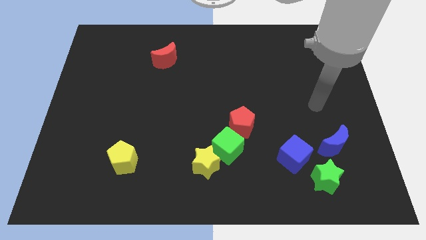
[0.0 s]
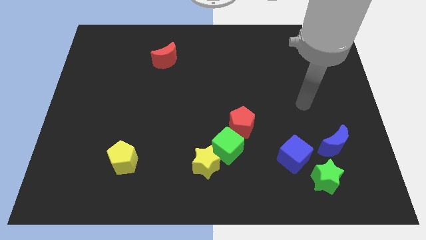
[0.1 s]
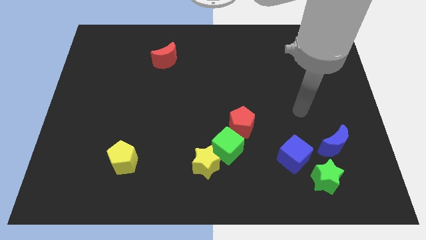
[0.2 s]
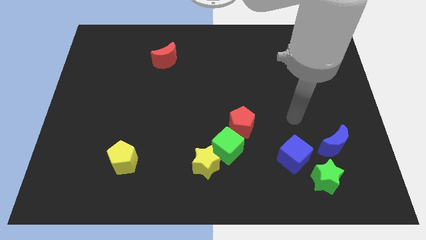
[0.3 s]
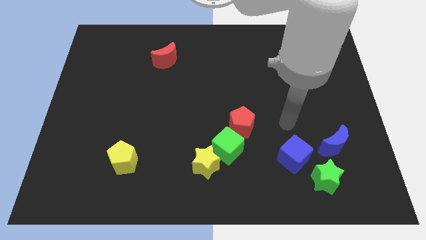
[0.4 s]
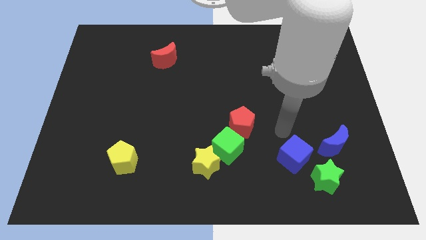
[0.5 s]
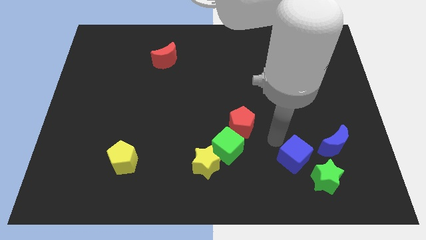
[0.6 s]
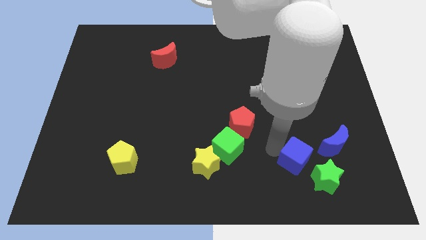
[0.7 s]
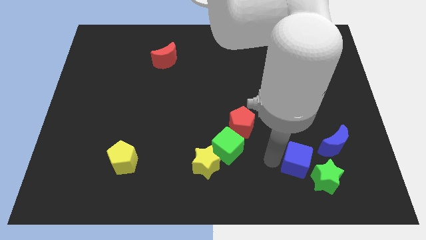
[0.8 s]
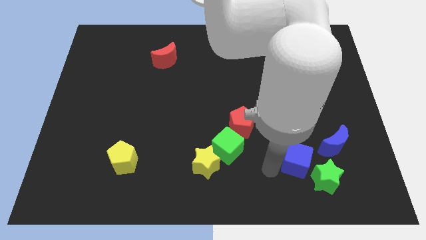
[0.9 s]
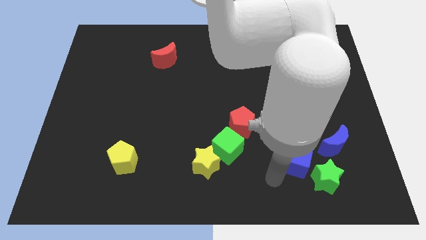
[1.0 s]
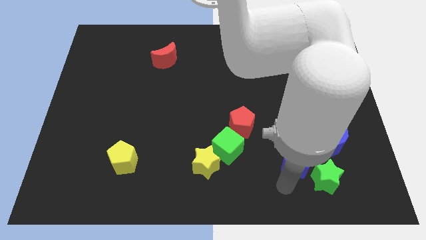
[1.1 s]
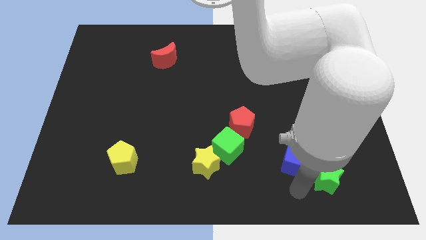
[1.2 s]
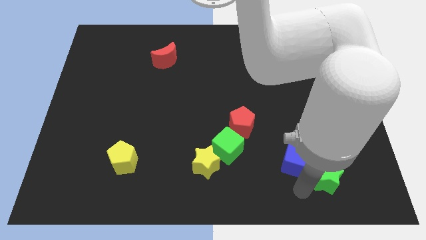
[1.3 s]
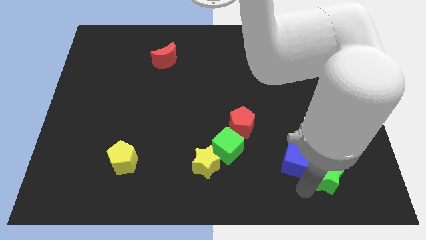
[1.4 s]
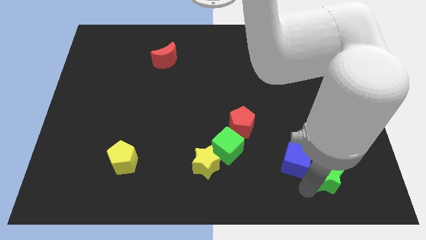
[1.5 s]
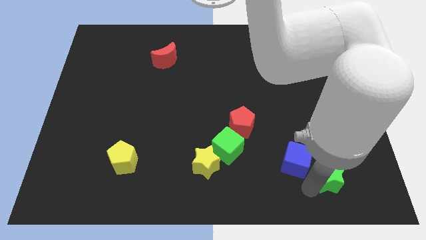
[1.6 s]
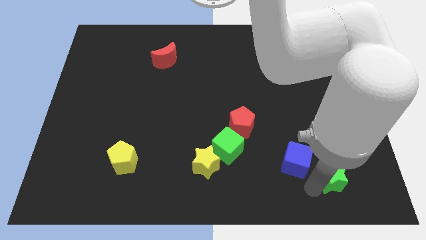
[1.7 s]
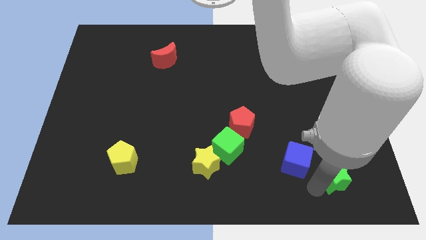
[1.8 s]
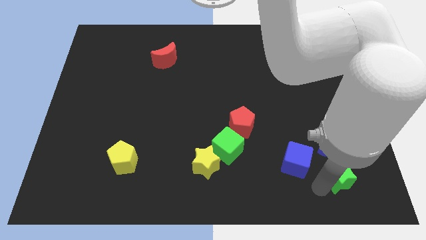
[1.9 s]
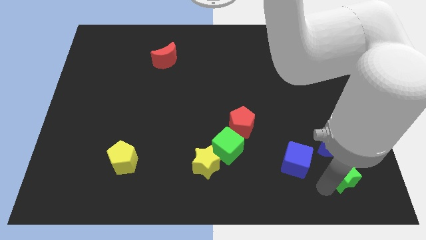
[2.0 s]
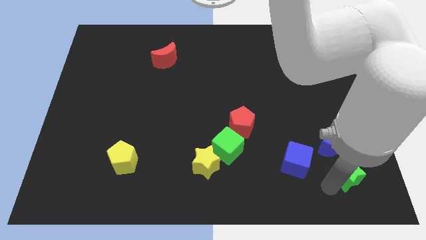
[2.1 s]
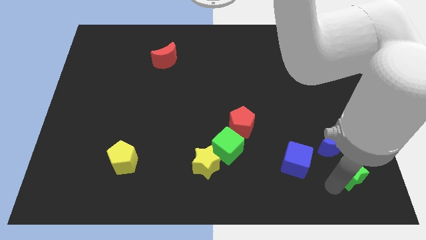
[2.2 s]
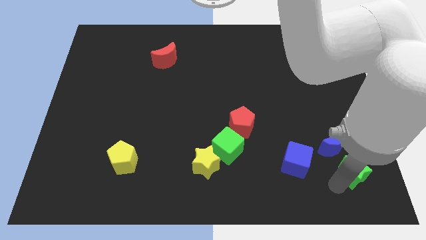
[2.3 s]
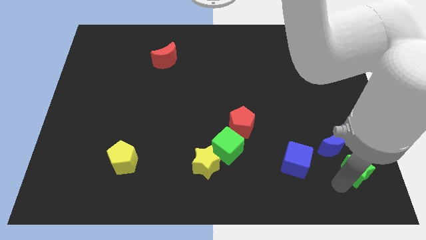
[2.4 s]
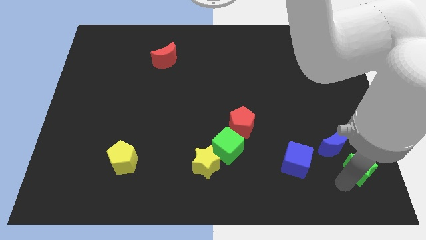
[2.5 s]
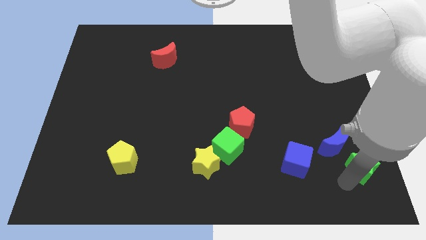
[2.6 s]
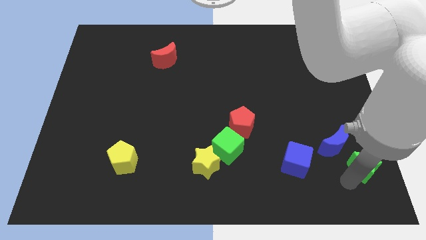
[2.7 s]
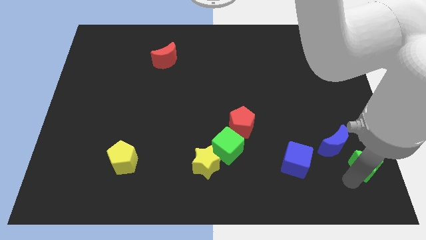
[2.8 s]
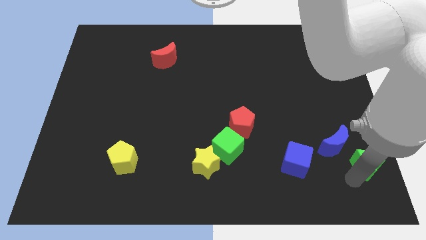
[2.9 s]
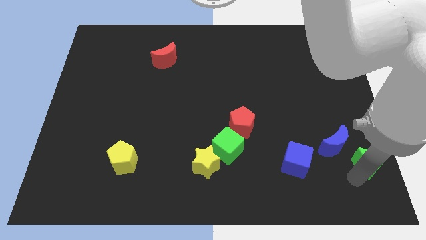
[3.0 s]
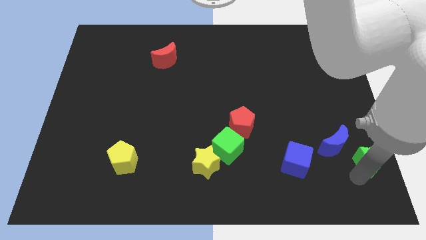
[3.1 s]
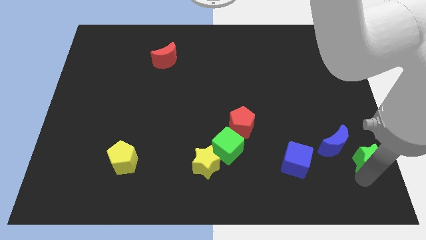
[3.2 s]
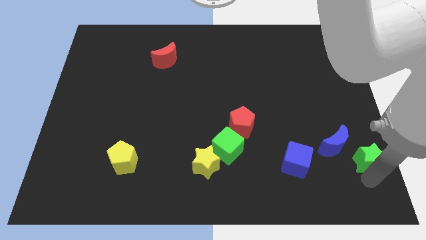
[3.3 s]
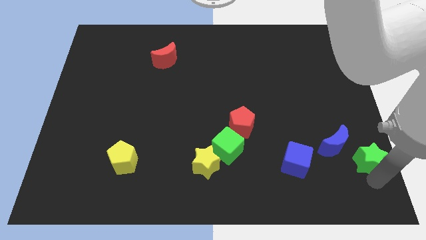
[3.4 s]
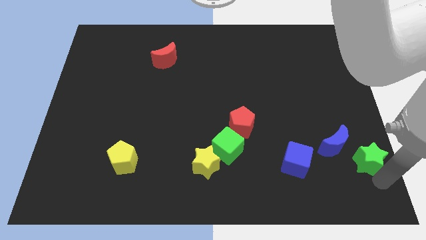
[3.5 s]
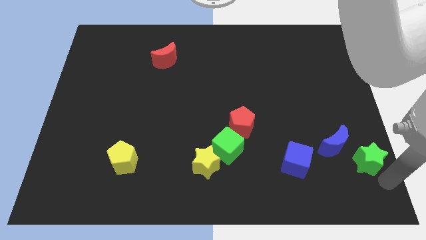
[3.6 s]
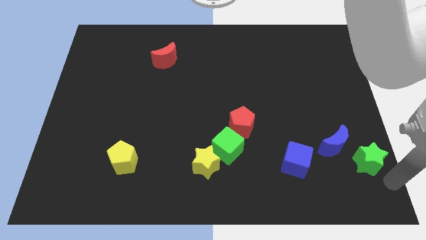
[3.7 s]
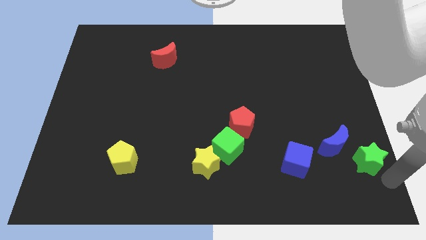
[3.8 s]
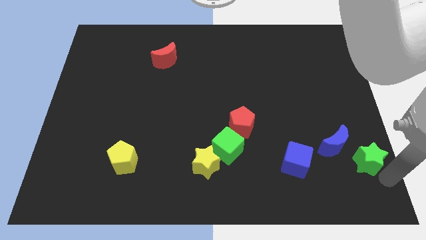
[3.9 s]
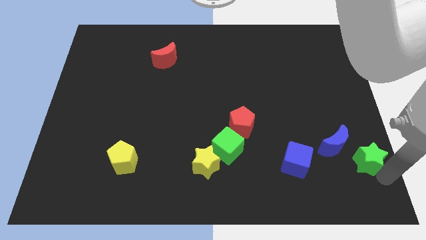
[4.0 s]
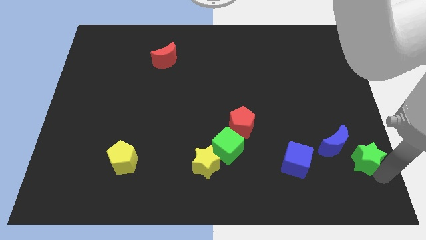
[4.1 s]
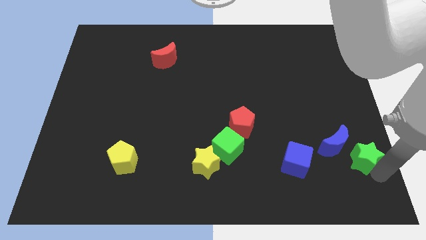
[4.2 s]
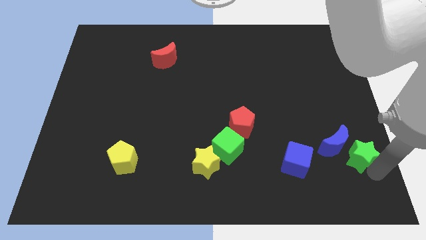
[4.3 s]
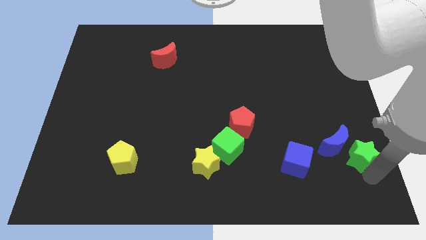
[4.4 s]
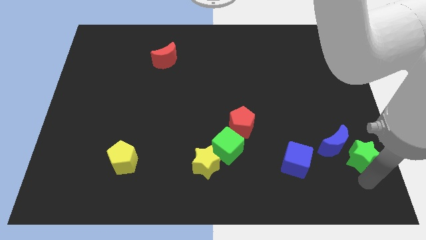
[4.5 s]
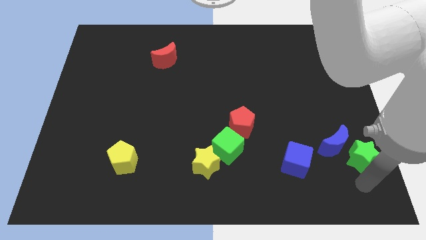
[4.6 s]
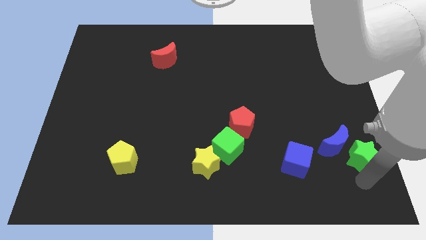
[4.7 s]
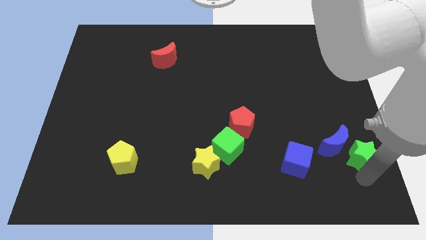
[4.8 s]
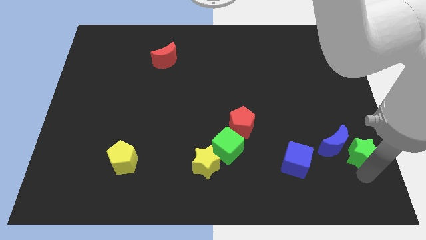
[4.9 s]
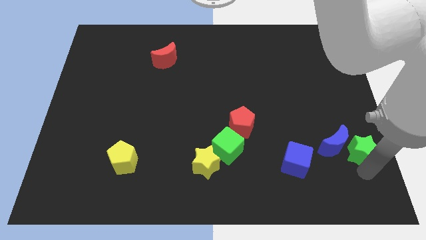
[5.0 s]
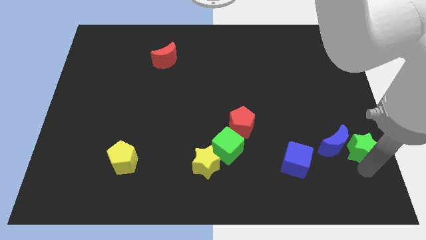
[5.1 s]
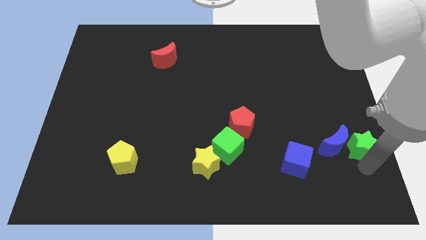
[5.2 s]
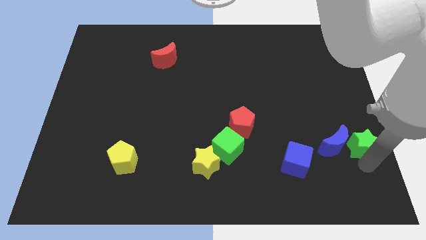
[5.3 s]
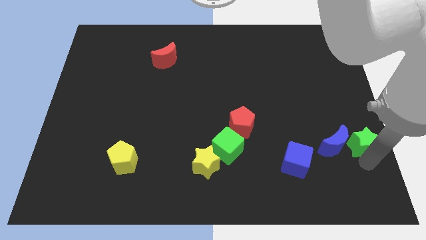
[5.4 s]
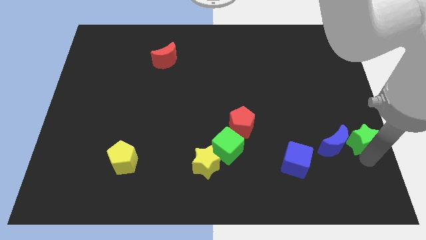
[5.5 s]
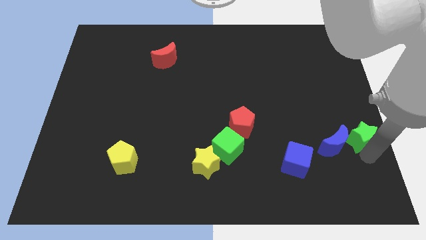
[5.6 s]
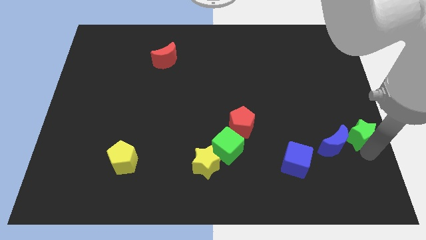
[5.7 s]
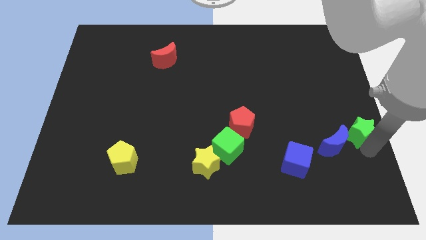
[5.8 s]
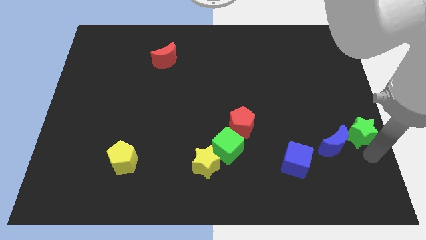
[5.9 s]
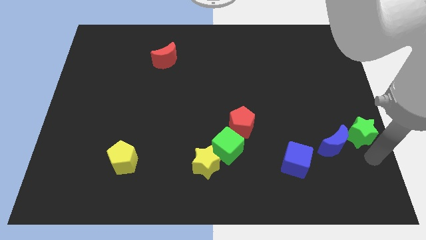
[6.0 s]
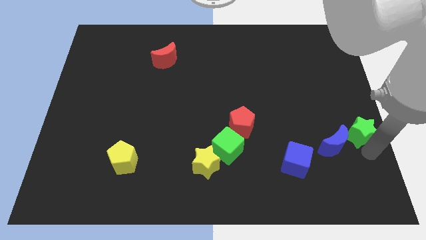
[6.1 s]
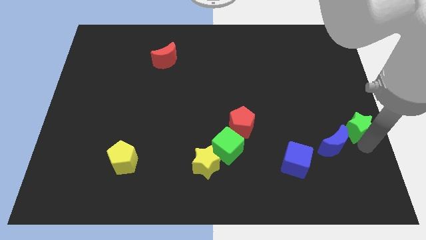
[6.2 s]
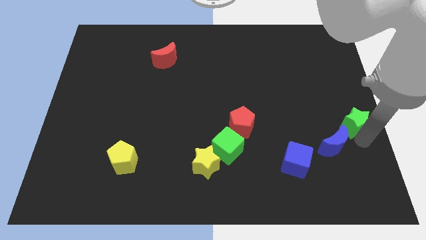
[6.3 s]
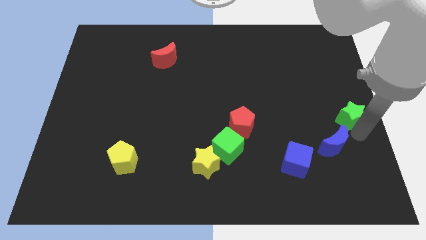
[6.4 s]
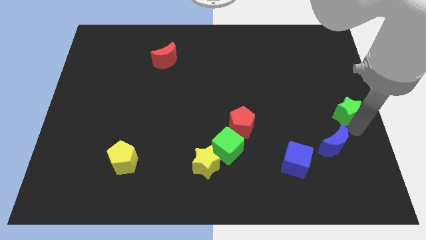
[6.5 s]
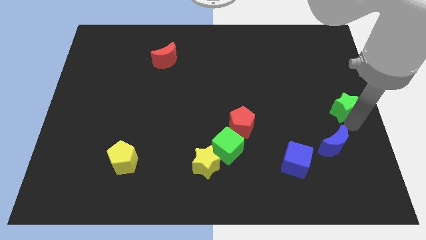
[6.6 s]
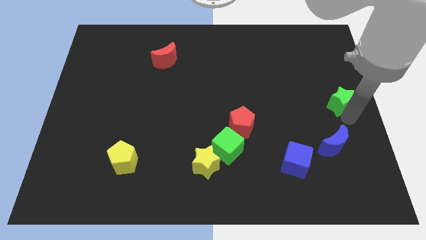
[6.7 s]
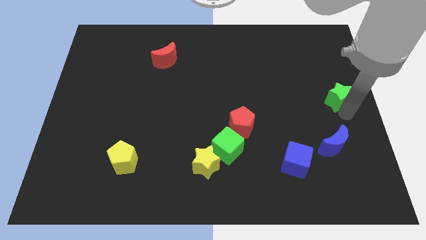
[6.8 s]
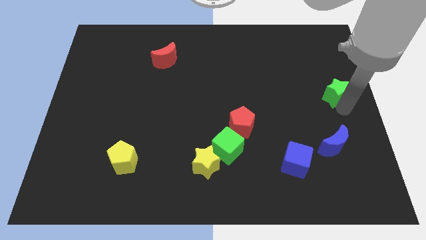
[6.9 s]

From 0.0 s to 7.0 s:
slide the green star upwards

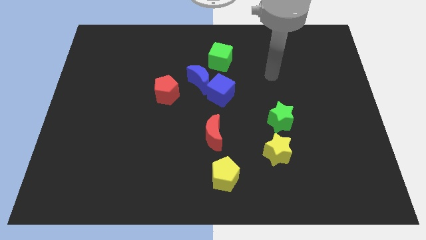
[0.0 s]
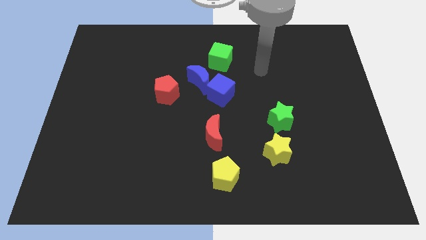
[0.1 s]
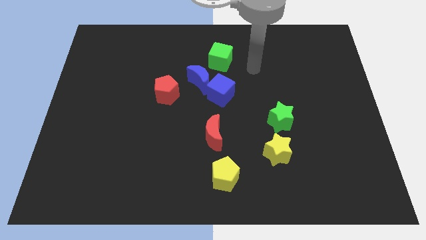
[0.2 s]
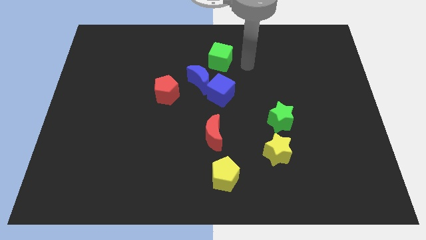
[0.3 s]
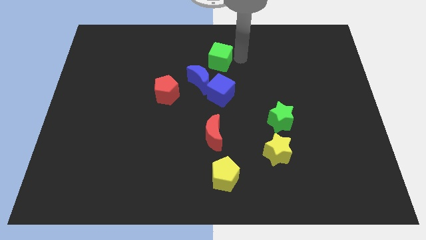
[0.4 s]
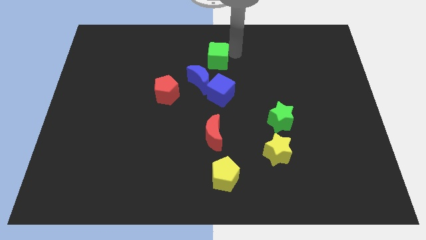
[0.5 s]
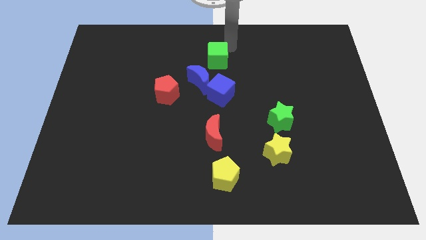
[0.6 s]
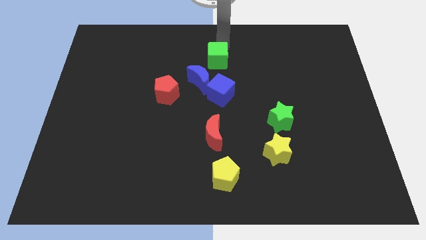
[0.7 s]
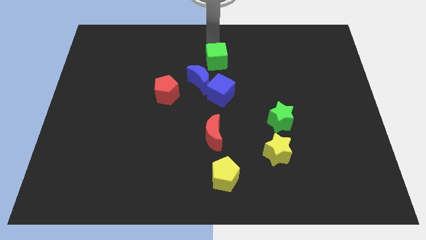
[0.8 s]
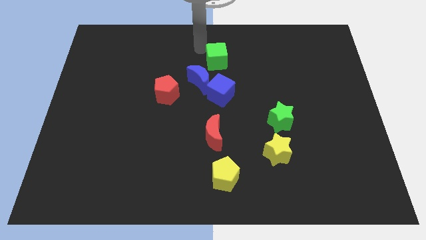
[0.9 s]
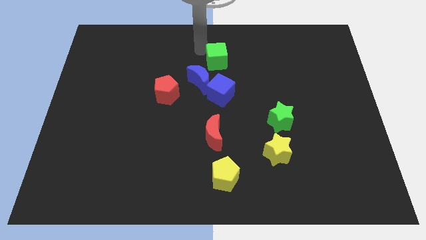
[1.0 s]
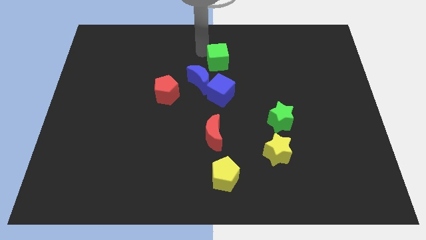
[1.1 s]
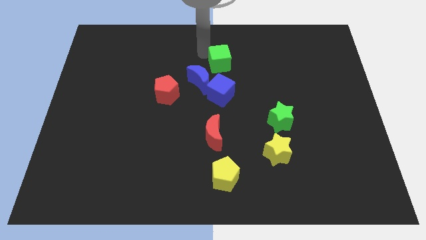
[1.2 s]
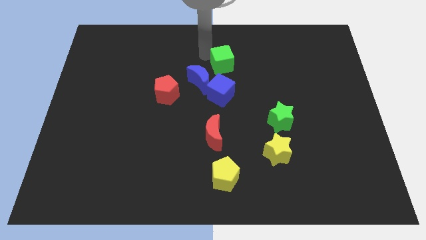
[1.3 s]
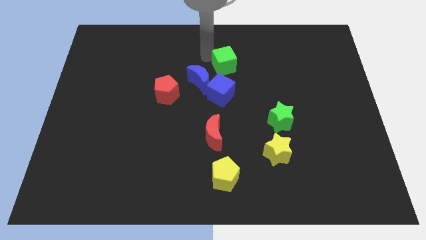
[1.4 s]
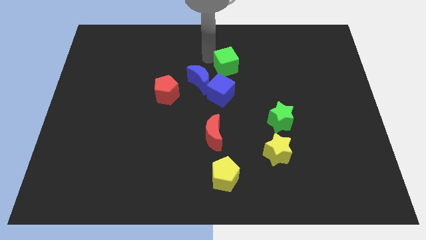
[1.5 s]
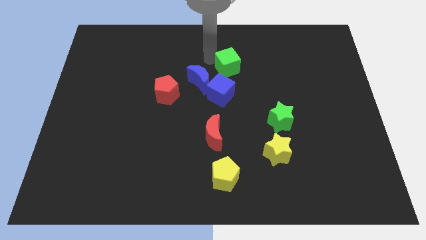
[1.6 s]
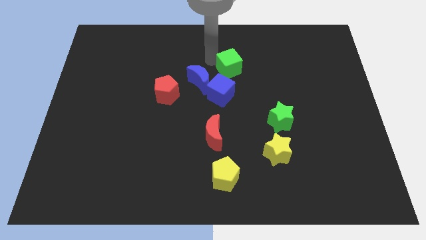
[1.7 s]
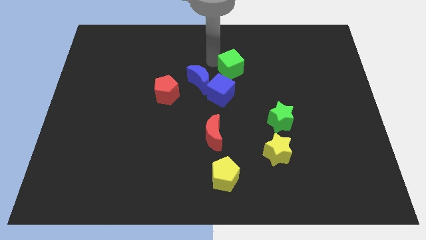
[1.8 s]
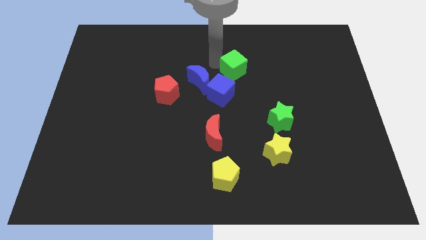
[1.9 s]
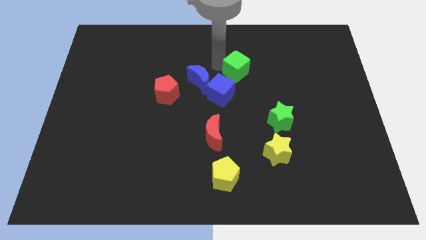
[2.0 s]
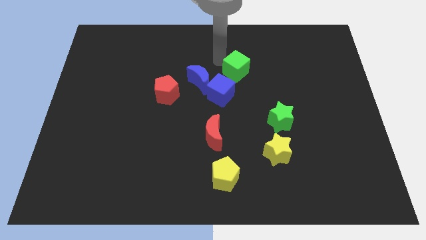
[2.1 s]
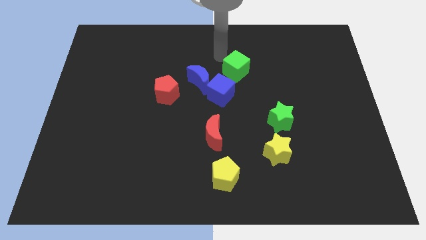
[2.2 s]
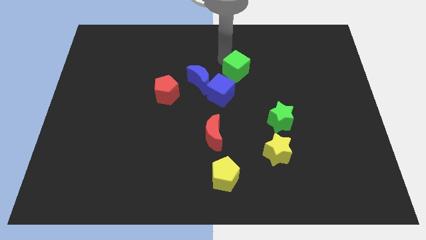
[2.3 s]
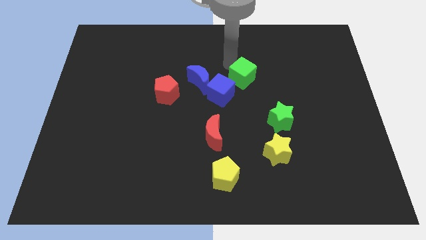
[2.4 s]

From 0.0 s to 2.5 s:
move the green cube a little down and right
